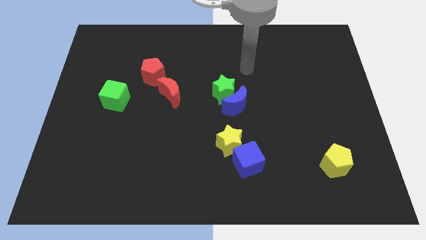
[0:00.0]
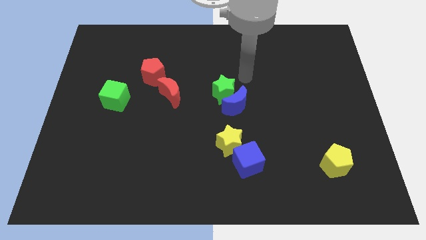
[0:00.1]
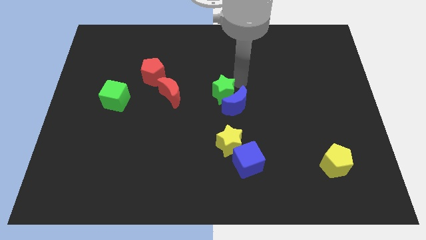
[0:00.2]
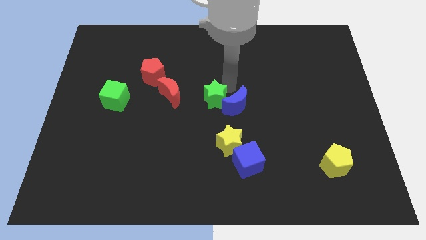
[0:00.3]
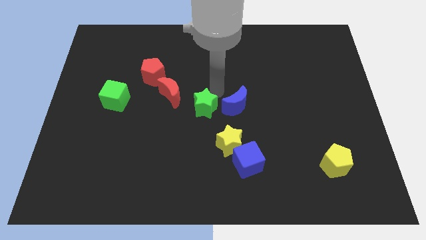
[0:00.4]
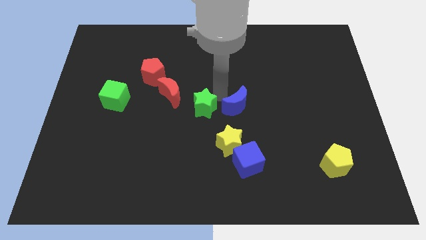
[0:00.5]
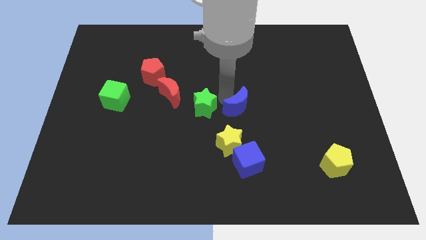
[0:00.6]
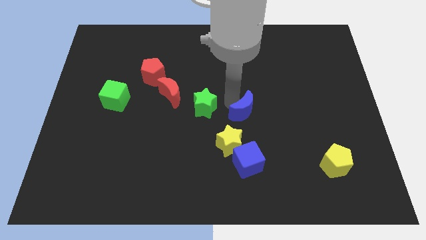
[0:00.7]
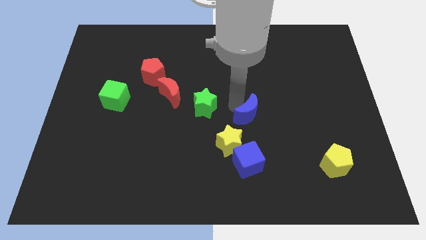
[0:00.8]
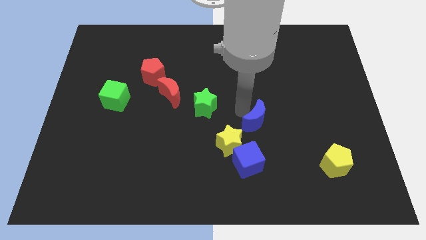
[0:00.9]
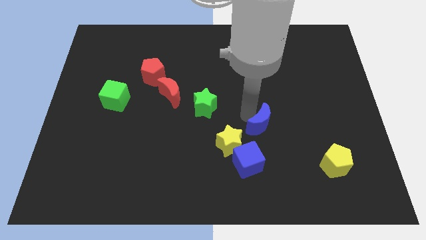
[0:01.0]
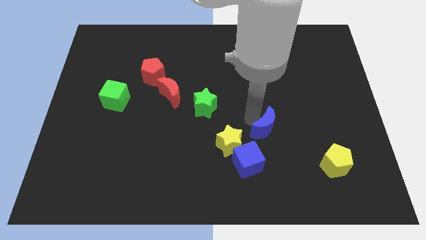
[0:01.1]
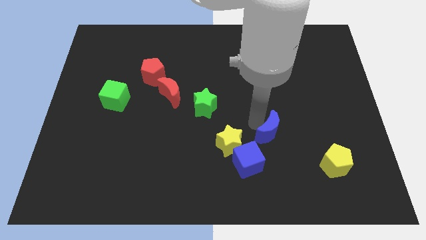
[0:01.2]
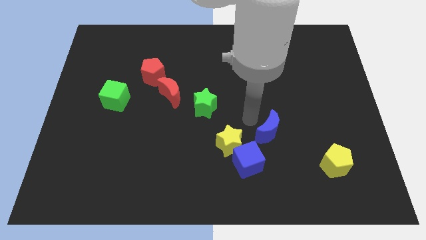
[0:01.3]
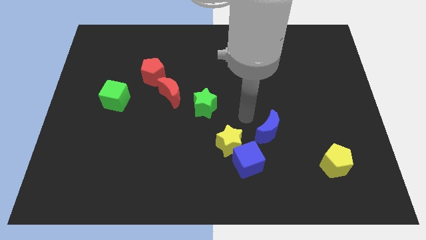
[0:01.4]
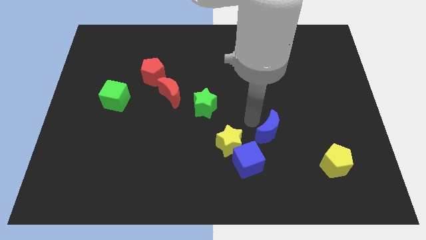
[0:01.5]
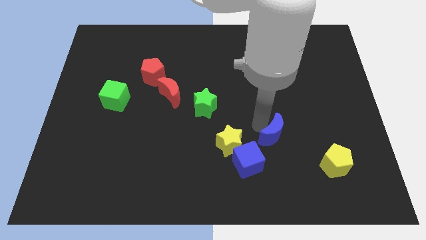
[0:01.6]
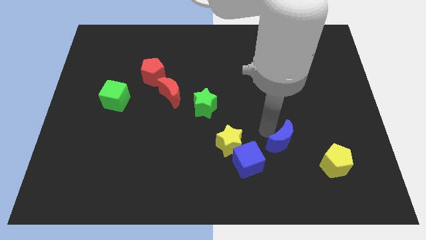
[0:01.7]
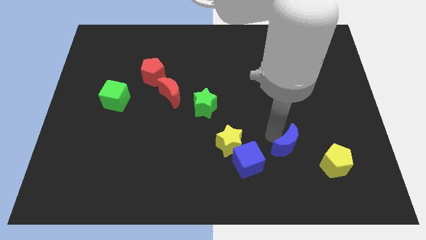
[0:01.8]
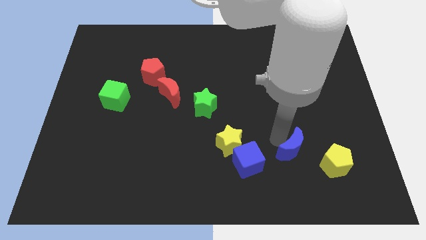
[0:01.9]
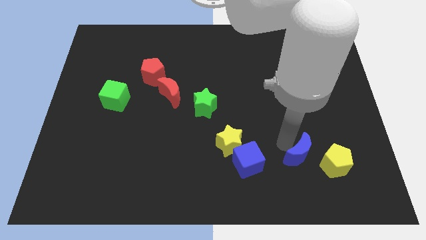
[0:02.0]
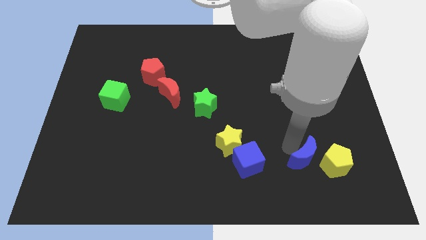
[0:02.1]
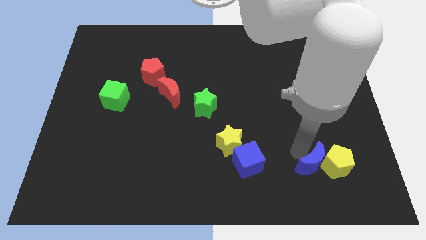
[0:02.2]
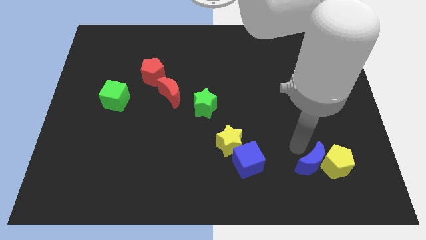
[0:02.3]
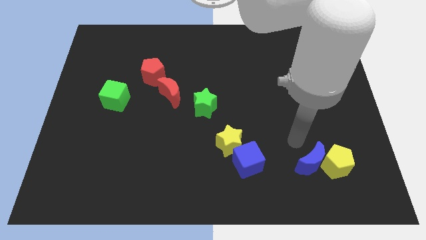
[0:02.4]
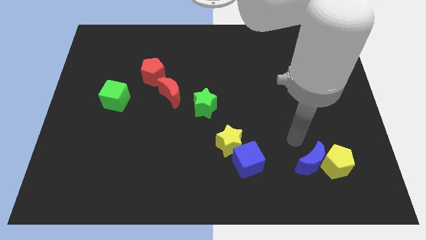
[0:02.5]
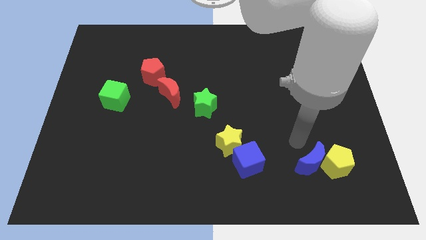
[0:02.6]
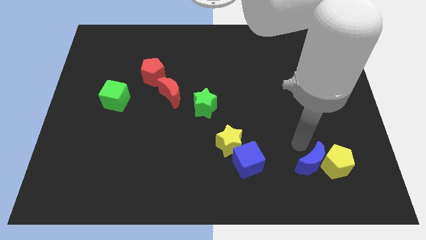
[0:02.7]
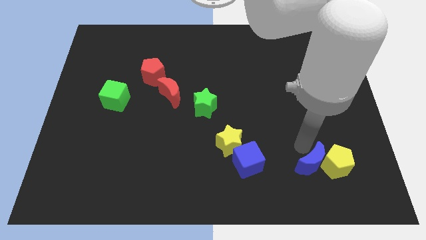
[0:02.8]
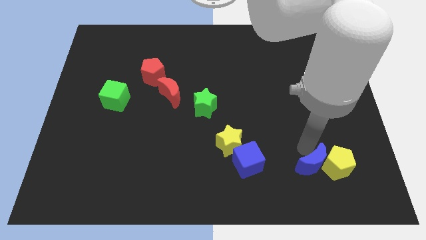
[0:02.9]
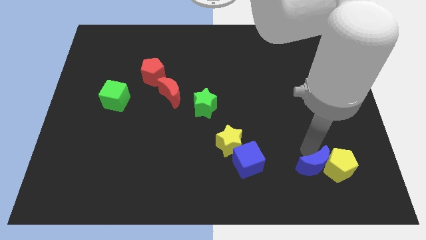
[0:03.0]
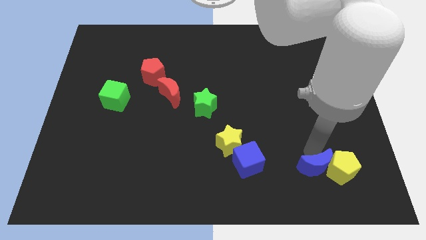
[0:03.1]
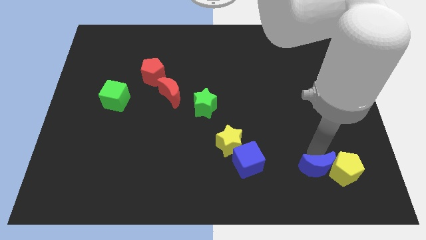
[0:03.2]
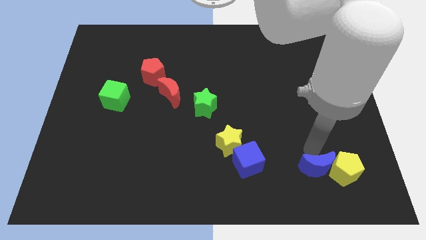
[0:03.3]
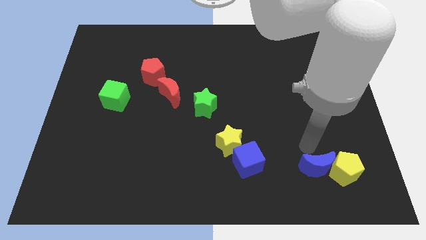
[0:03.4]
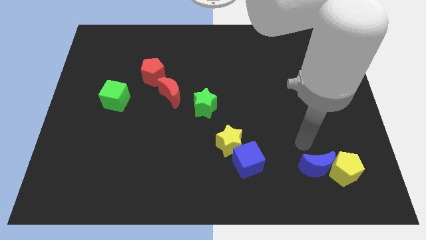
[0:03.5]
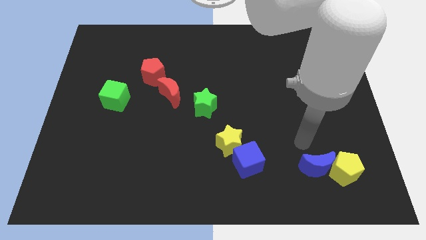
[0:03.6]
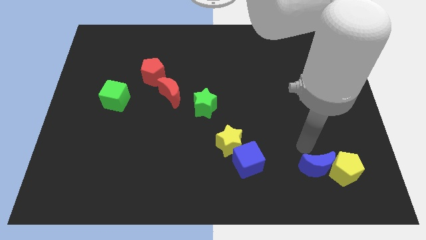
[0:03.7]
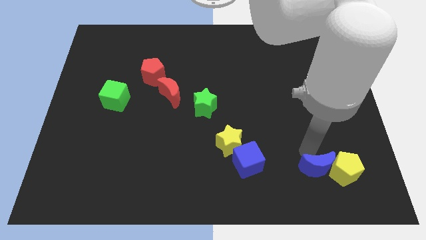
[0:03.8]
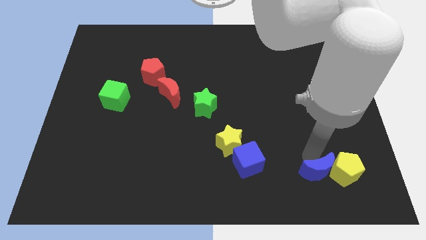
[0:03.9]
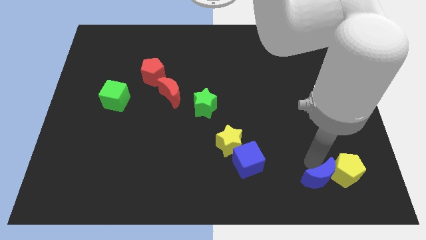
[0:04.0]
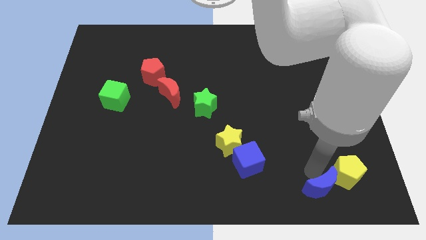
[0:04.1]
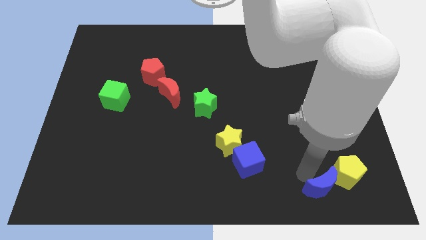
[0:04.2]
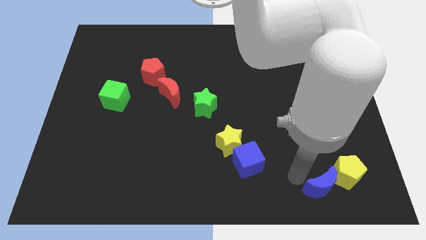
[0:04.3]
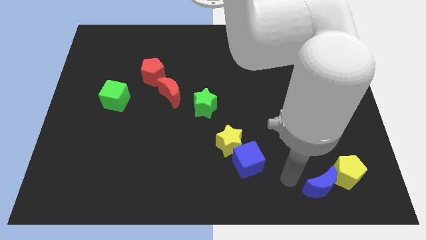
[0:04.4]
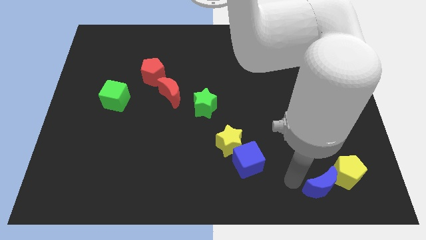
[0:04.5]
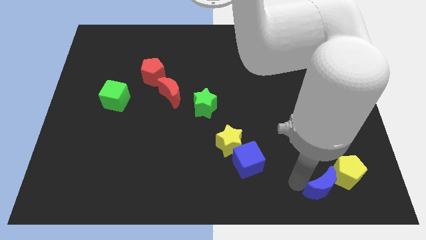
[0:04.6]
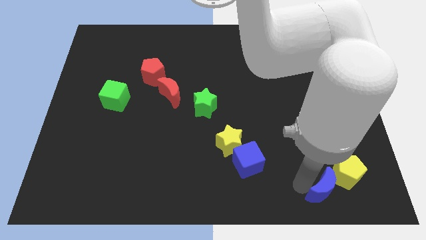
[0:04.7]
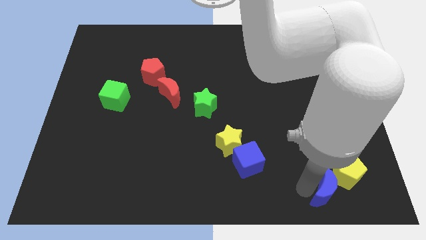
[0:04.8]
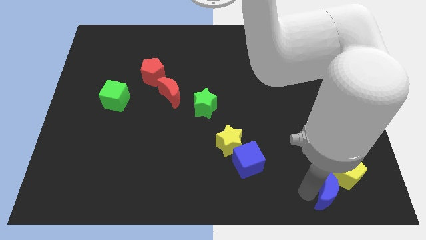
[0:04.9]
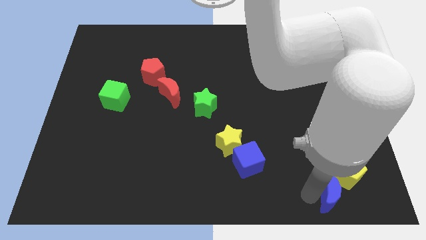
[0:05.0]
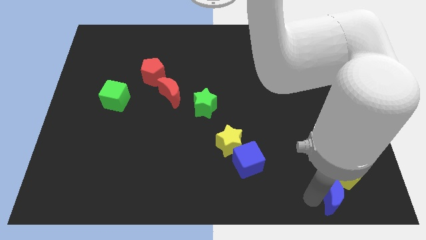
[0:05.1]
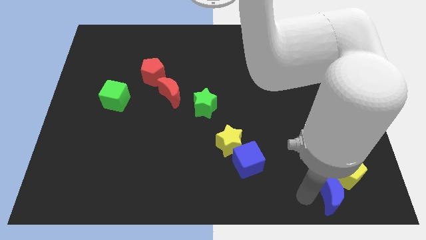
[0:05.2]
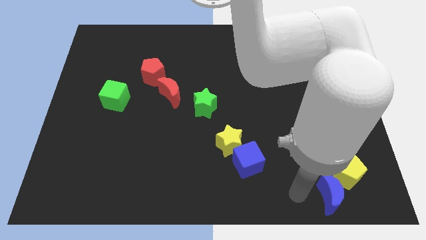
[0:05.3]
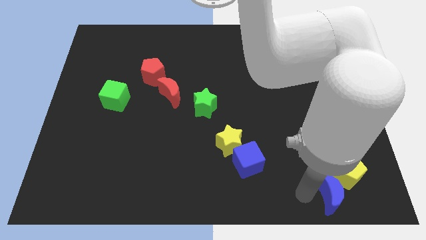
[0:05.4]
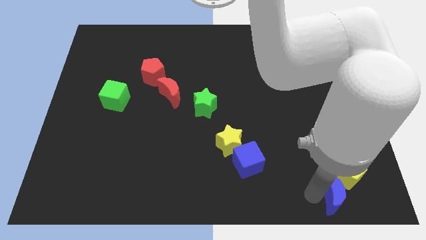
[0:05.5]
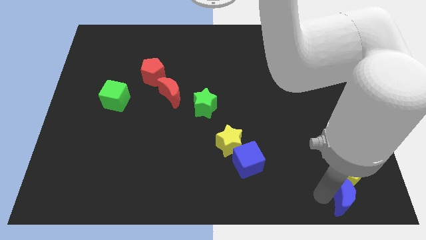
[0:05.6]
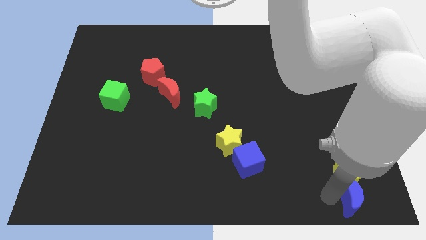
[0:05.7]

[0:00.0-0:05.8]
move the blue moon to the lower right corner

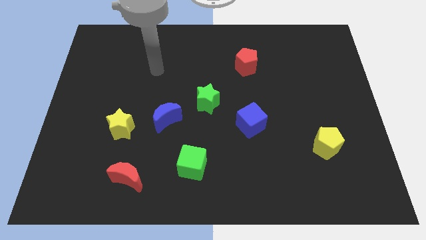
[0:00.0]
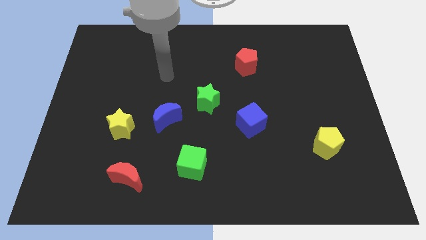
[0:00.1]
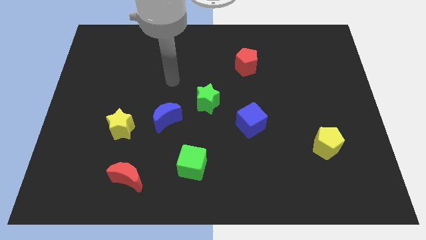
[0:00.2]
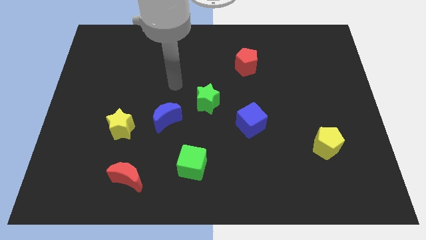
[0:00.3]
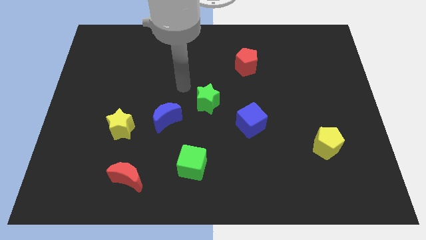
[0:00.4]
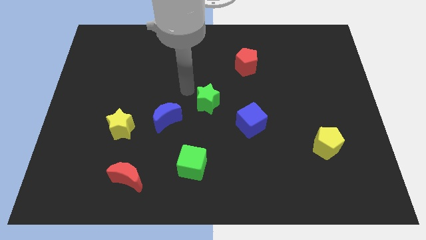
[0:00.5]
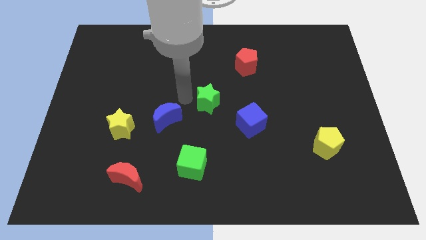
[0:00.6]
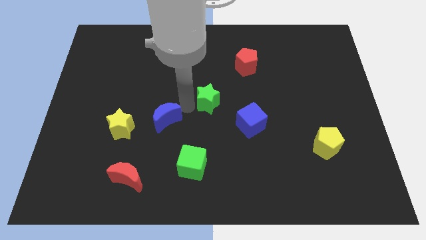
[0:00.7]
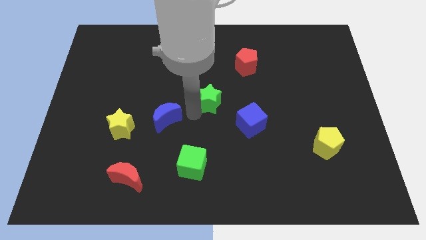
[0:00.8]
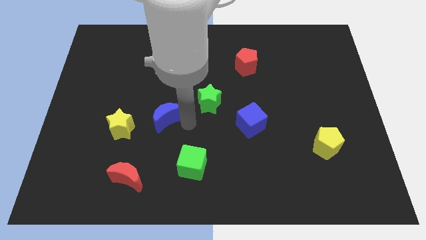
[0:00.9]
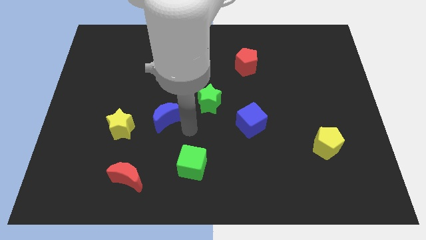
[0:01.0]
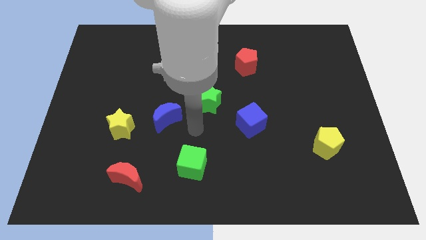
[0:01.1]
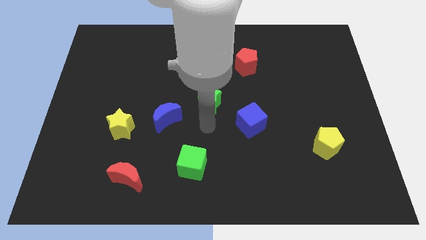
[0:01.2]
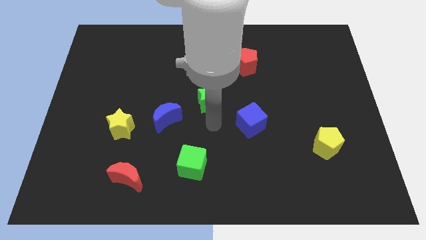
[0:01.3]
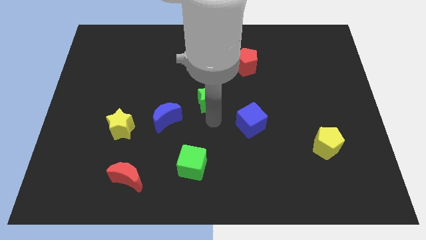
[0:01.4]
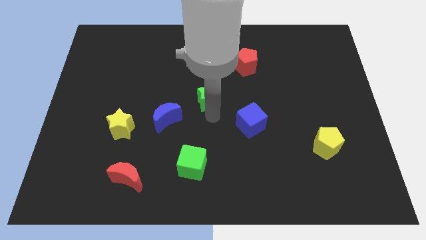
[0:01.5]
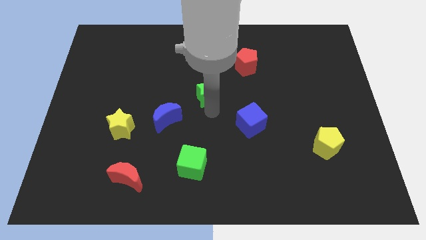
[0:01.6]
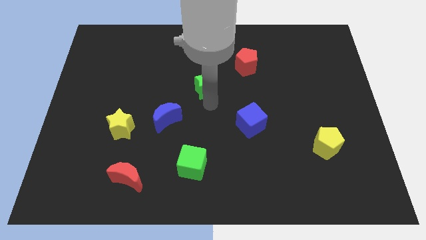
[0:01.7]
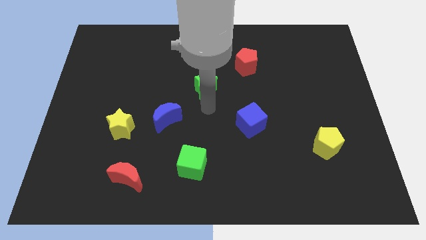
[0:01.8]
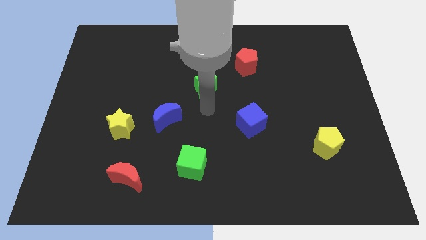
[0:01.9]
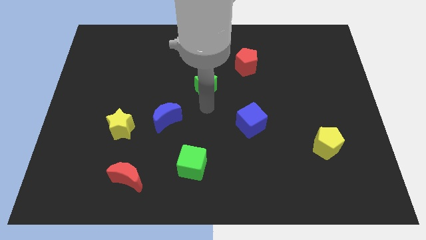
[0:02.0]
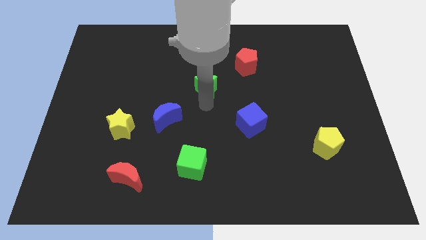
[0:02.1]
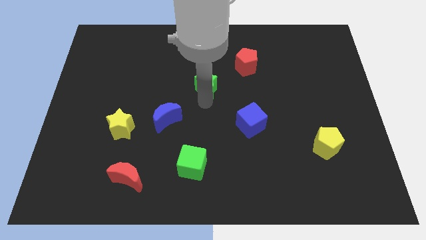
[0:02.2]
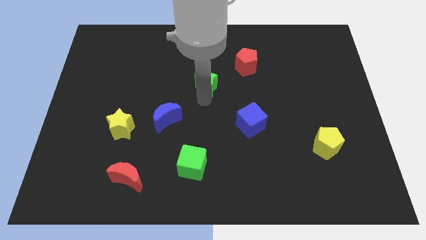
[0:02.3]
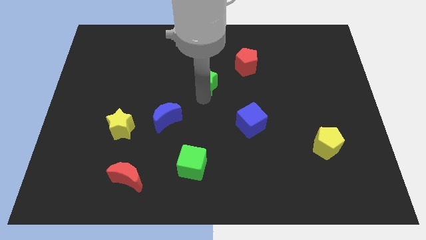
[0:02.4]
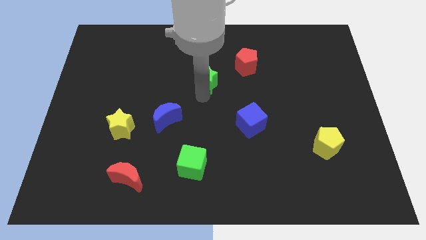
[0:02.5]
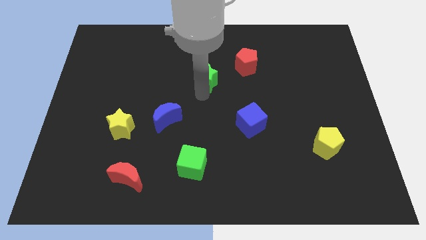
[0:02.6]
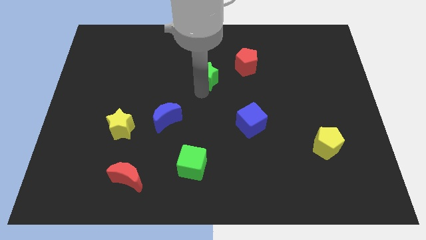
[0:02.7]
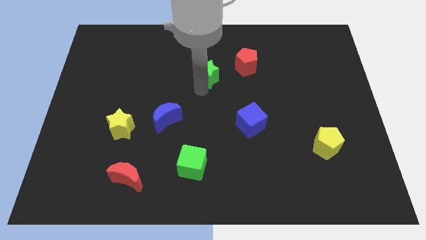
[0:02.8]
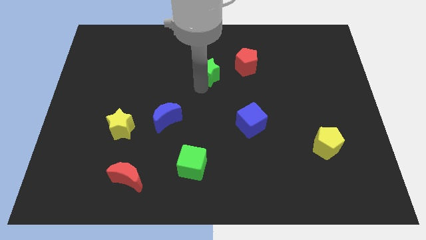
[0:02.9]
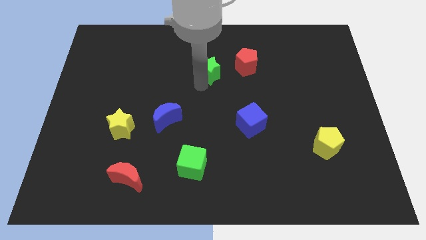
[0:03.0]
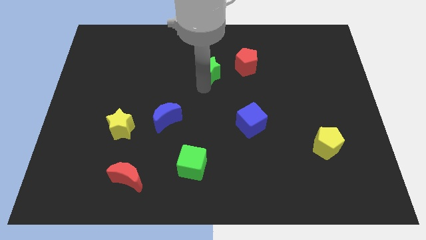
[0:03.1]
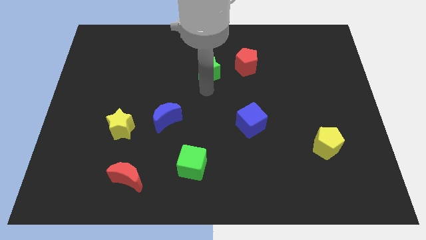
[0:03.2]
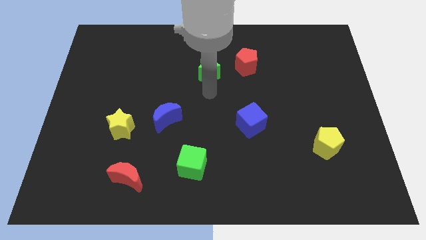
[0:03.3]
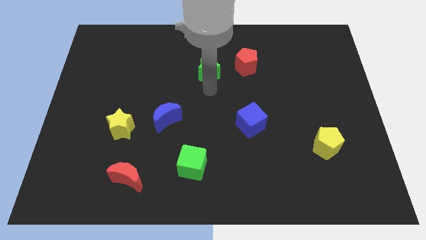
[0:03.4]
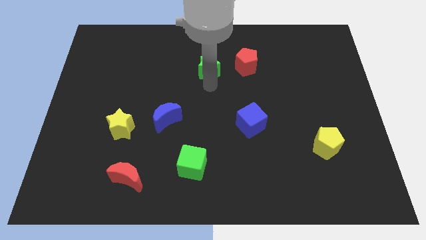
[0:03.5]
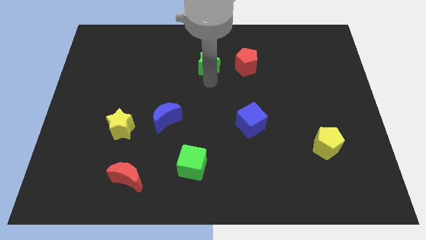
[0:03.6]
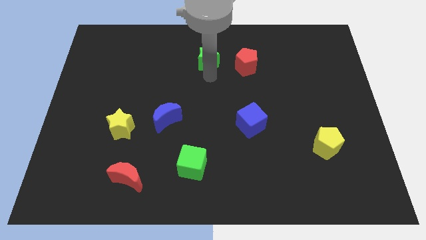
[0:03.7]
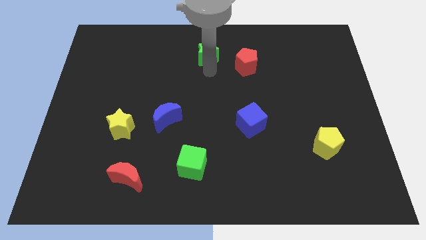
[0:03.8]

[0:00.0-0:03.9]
move the green star to the top
